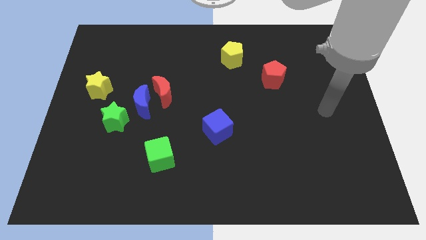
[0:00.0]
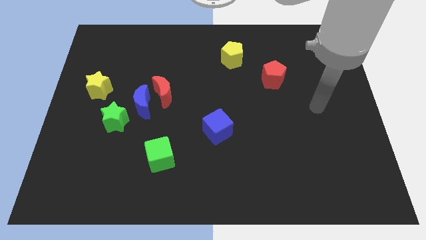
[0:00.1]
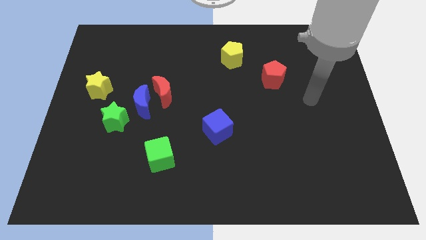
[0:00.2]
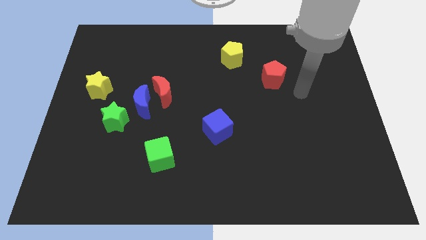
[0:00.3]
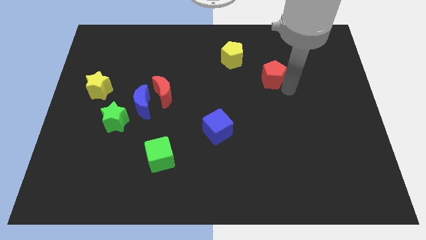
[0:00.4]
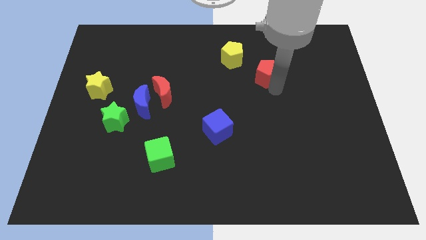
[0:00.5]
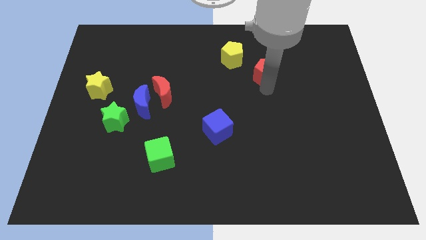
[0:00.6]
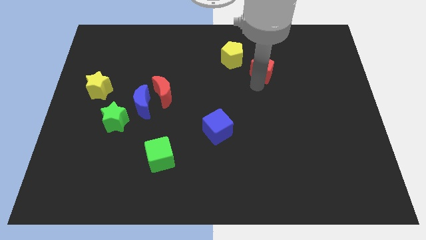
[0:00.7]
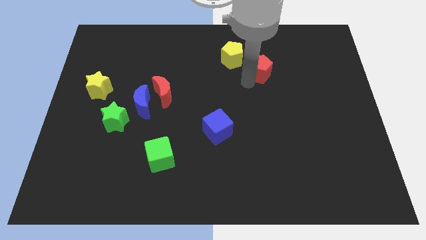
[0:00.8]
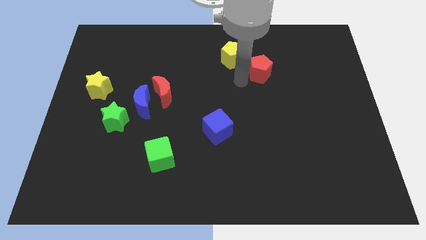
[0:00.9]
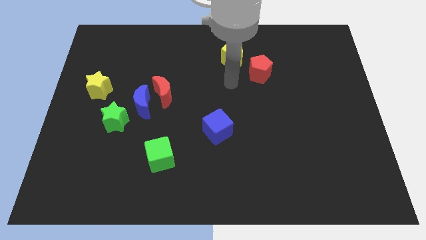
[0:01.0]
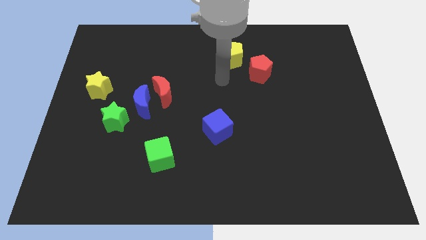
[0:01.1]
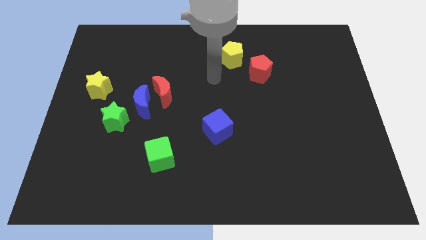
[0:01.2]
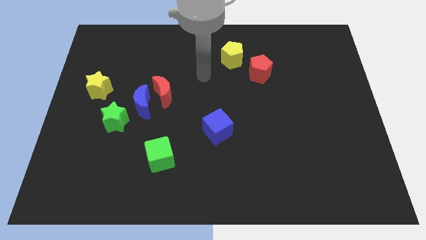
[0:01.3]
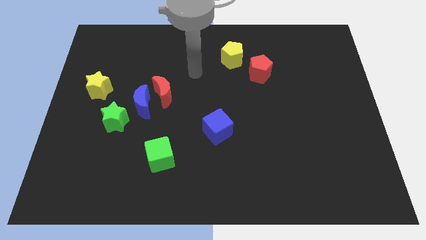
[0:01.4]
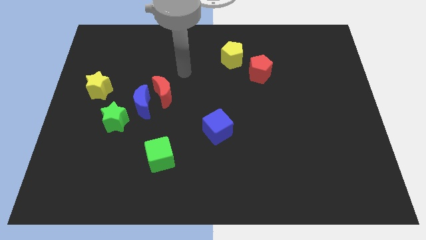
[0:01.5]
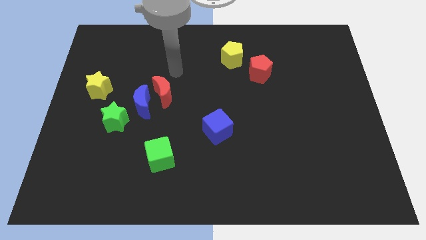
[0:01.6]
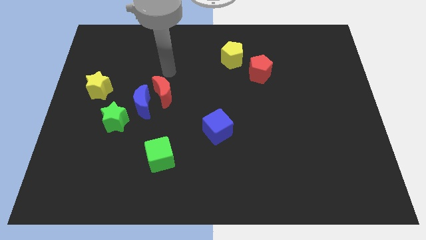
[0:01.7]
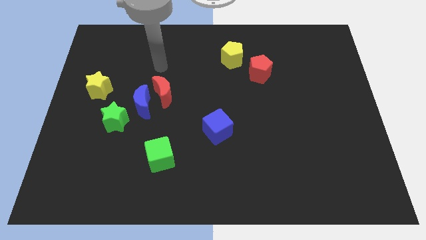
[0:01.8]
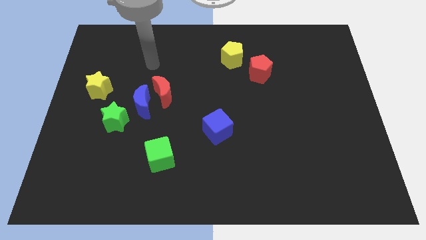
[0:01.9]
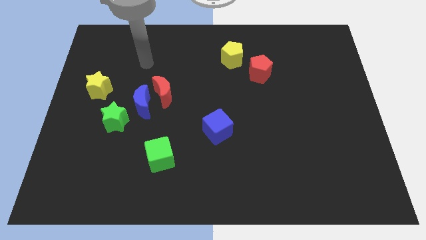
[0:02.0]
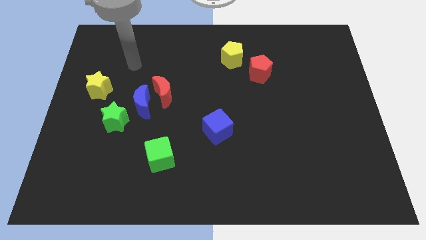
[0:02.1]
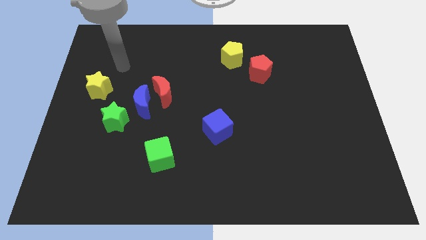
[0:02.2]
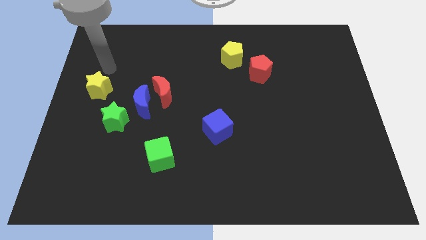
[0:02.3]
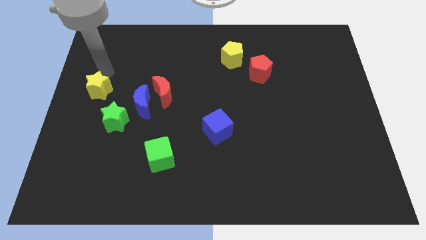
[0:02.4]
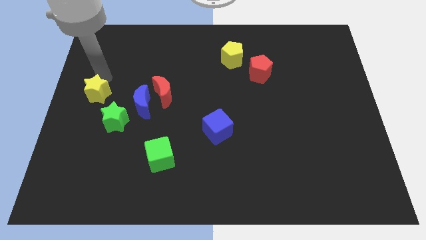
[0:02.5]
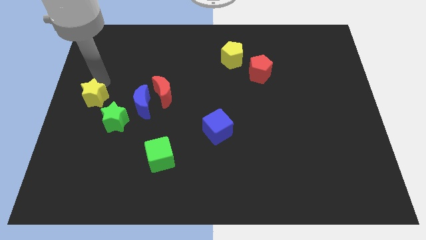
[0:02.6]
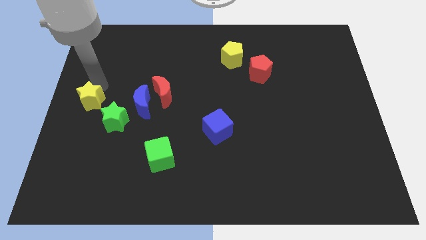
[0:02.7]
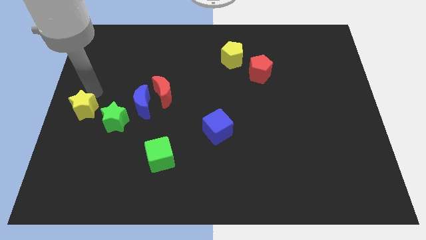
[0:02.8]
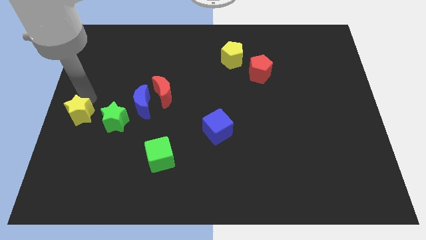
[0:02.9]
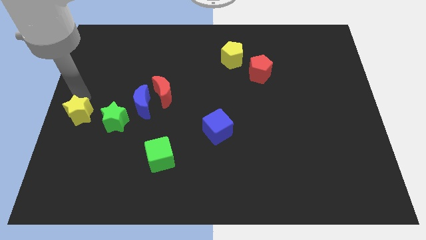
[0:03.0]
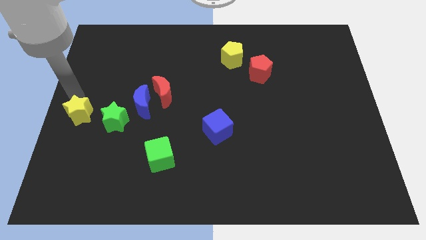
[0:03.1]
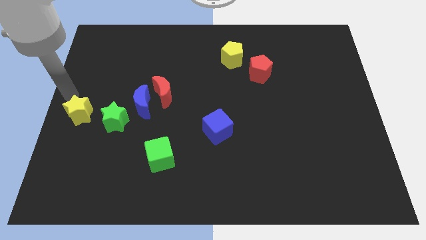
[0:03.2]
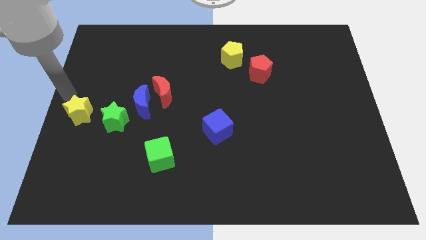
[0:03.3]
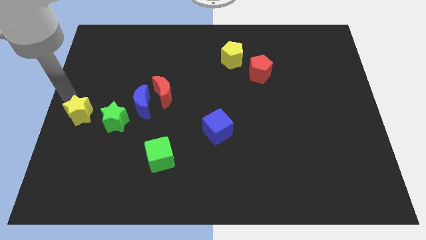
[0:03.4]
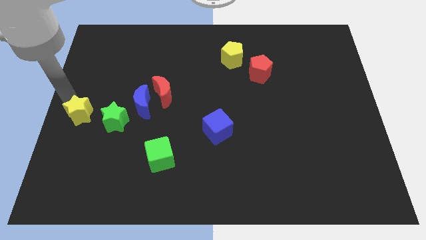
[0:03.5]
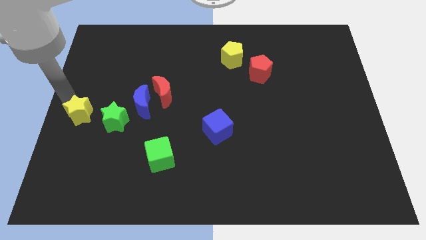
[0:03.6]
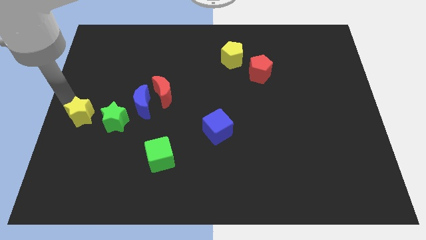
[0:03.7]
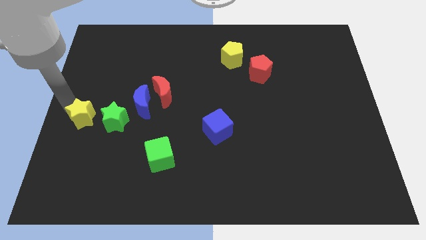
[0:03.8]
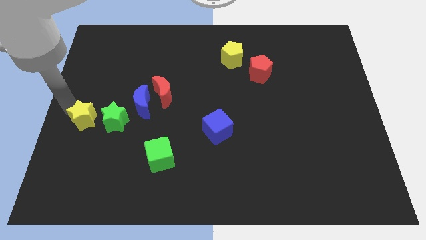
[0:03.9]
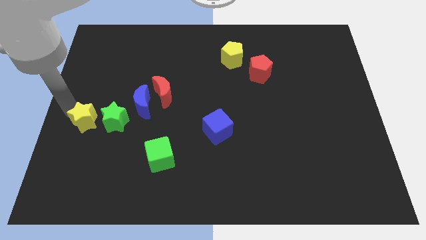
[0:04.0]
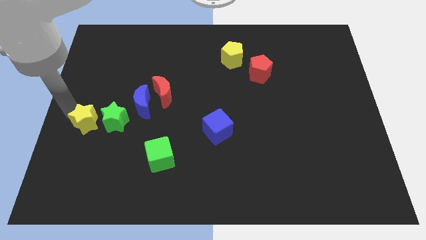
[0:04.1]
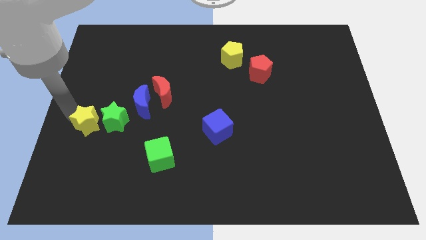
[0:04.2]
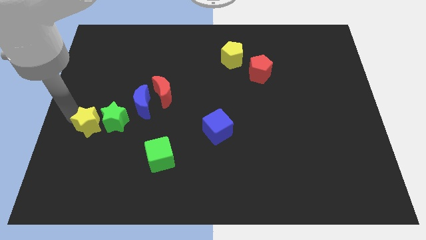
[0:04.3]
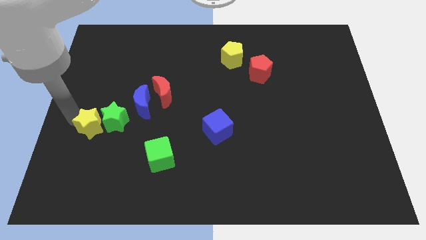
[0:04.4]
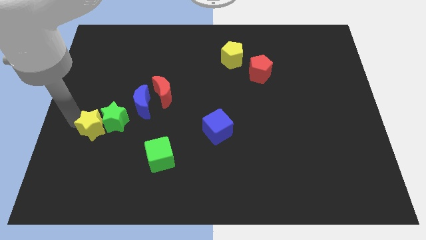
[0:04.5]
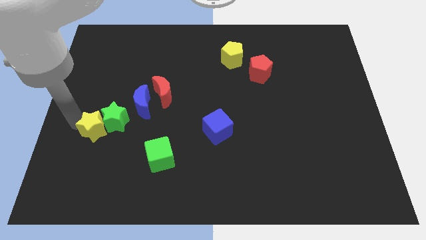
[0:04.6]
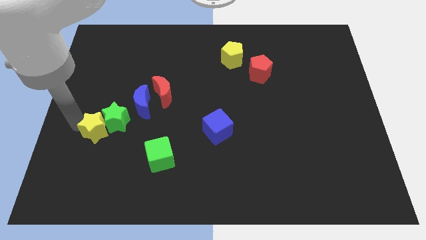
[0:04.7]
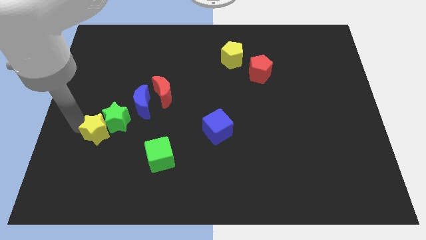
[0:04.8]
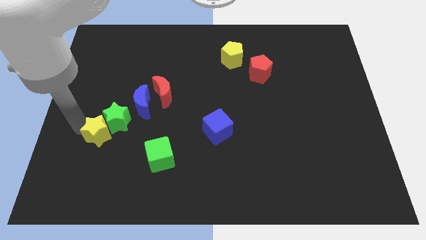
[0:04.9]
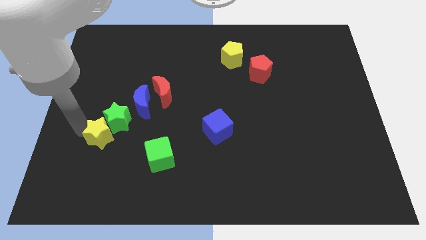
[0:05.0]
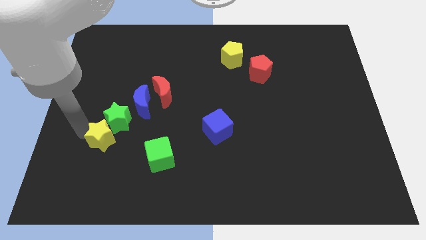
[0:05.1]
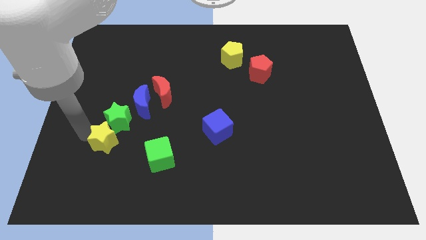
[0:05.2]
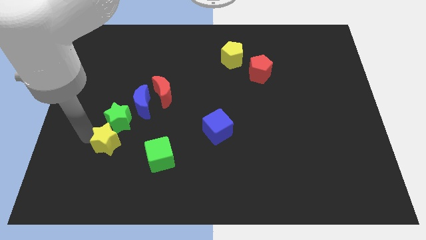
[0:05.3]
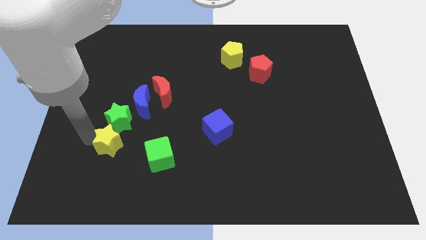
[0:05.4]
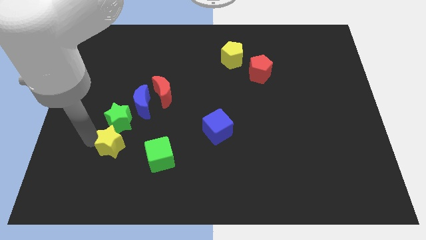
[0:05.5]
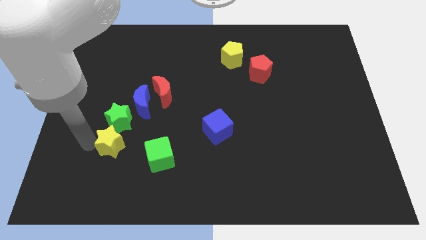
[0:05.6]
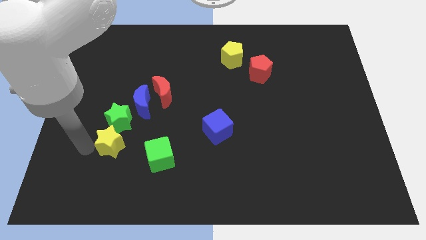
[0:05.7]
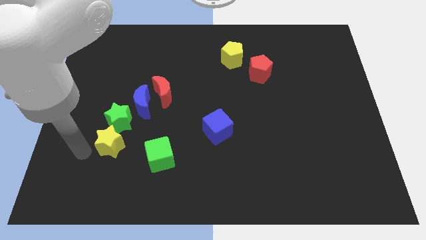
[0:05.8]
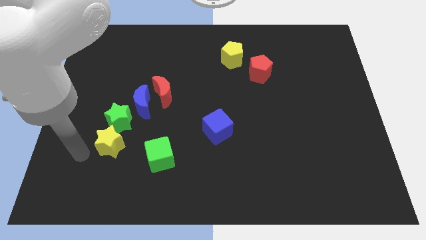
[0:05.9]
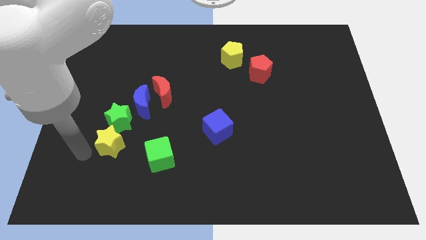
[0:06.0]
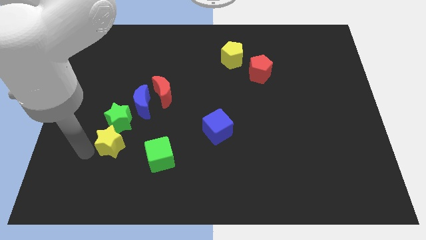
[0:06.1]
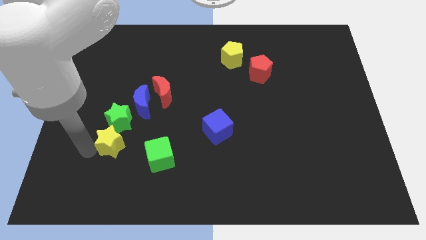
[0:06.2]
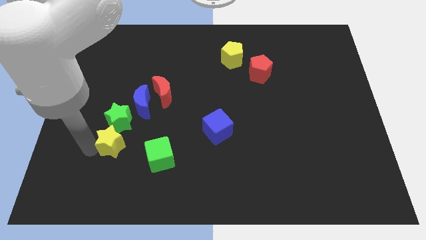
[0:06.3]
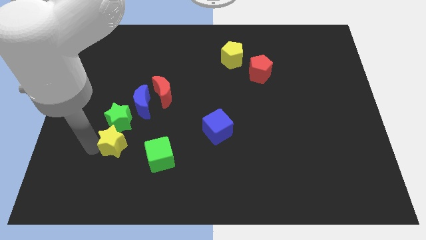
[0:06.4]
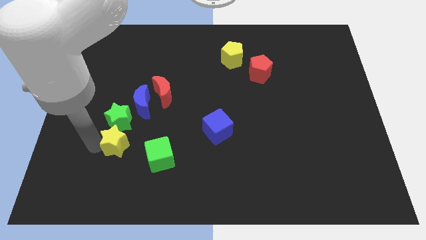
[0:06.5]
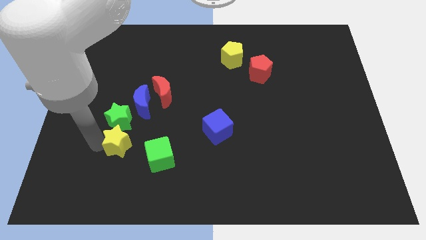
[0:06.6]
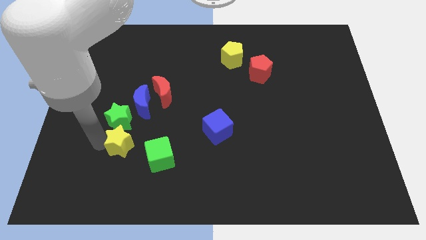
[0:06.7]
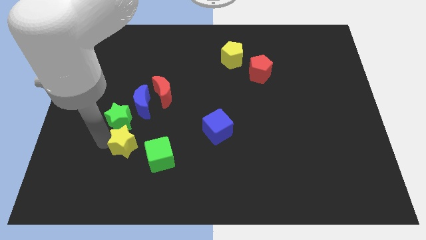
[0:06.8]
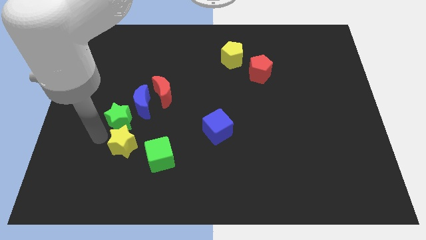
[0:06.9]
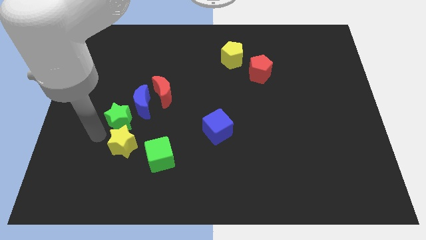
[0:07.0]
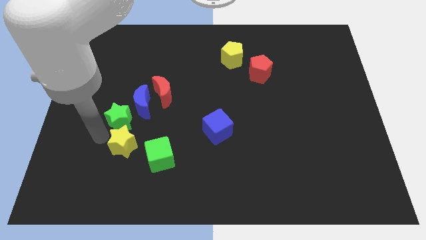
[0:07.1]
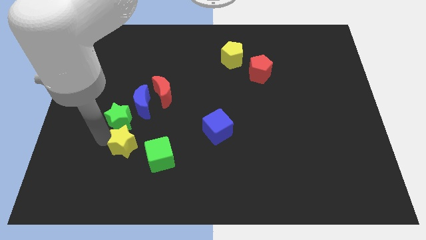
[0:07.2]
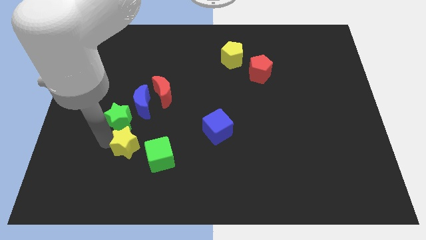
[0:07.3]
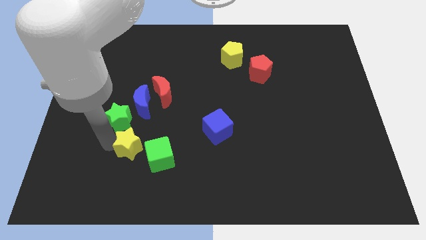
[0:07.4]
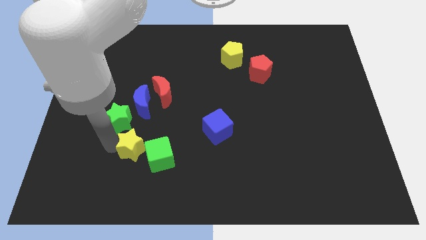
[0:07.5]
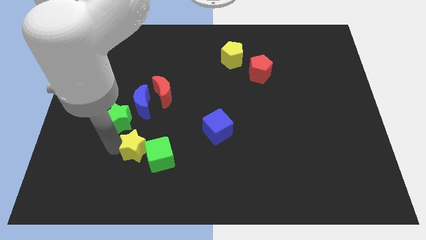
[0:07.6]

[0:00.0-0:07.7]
slide the yellow star next to the green cube
